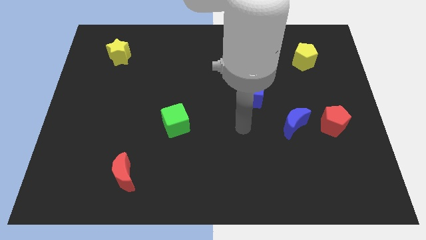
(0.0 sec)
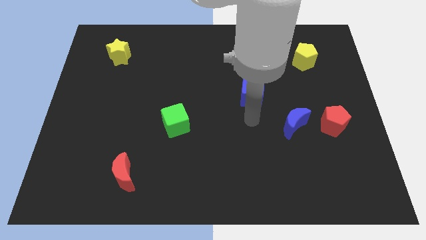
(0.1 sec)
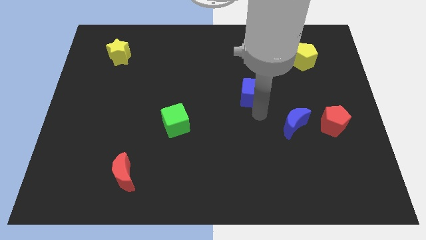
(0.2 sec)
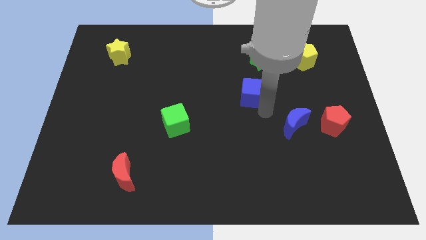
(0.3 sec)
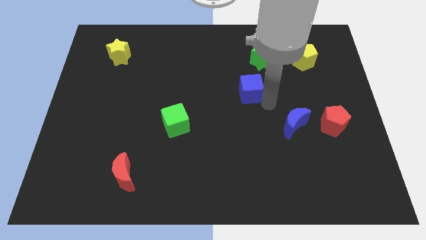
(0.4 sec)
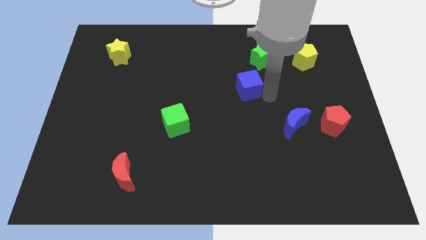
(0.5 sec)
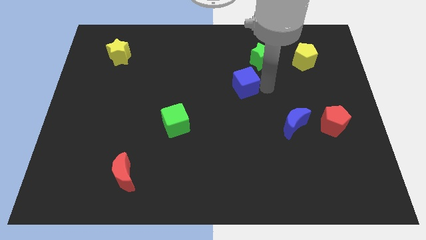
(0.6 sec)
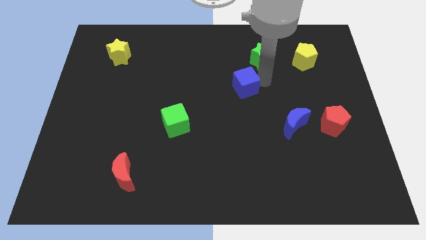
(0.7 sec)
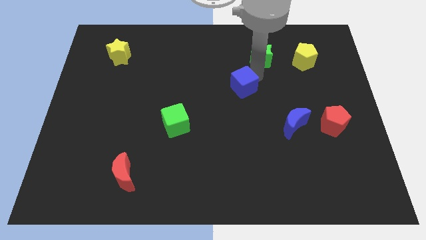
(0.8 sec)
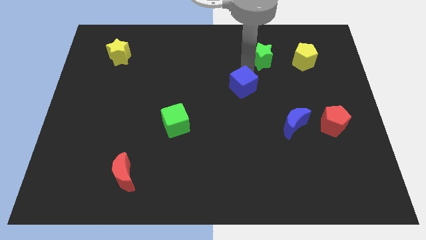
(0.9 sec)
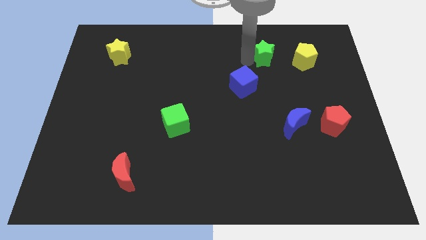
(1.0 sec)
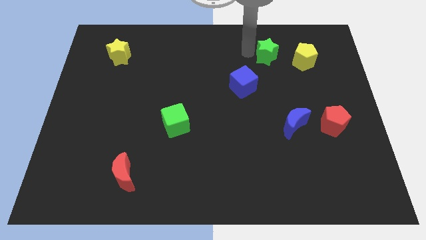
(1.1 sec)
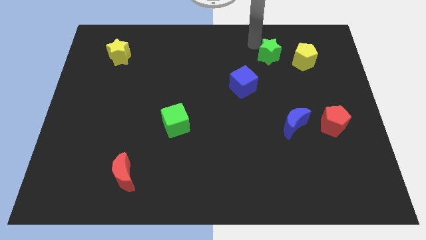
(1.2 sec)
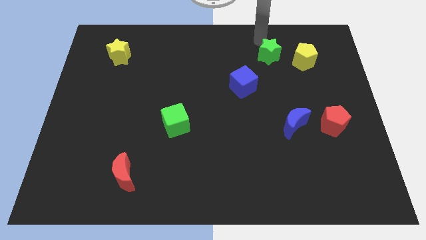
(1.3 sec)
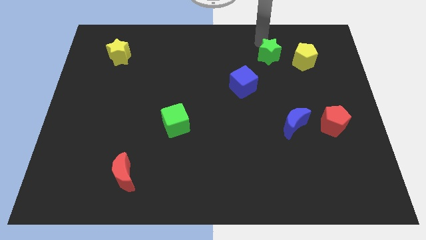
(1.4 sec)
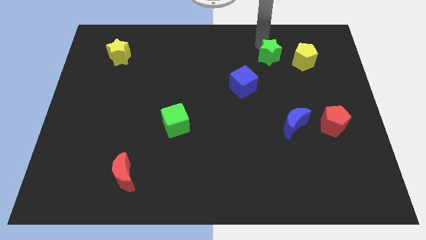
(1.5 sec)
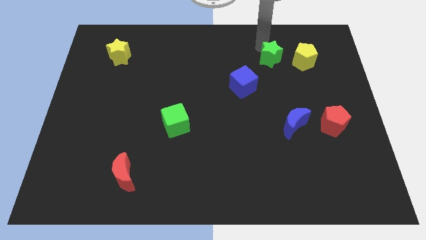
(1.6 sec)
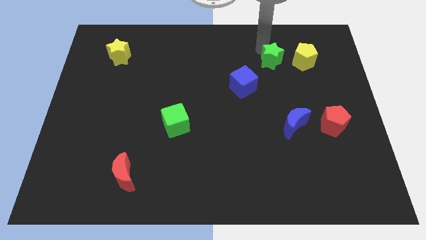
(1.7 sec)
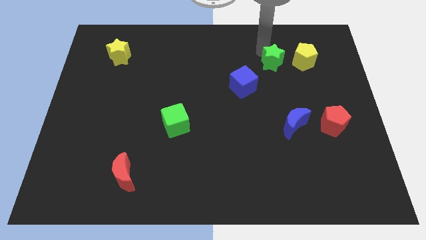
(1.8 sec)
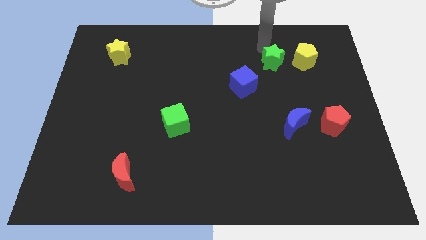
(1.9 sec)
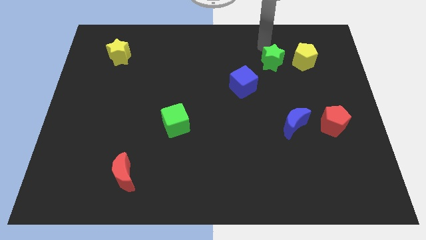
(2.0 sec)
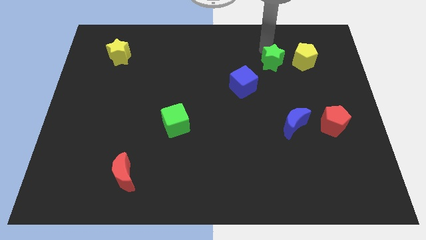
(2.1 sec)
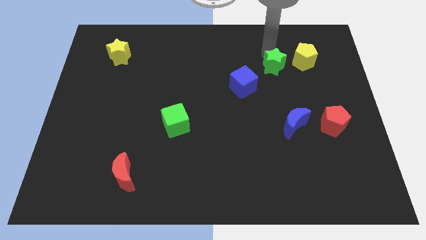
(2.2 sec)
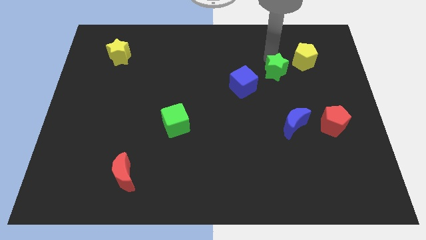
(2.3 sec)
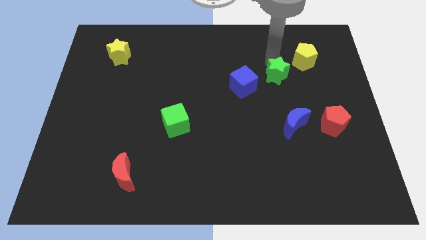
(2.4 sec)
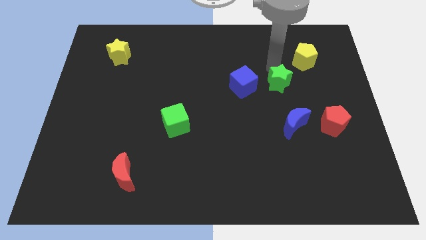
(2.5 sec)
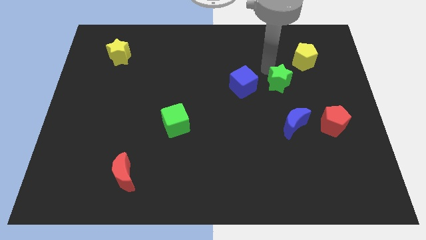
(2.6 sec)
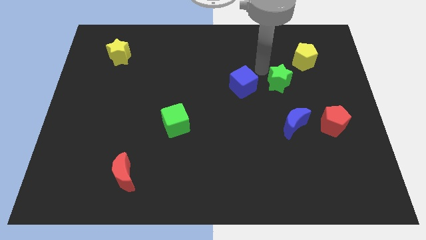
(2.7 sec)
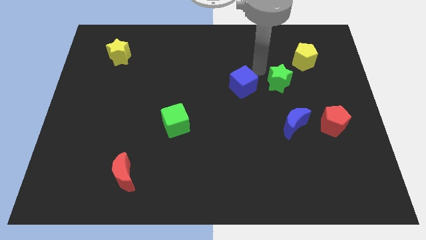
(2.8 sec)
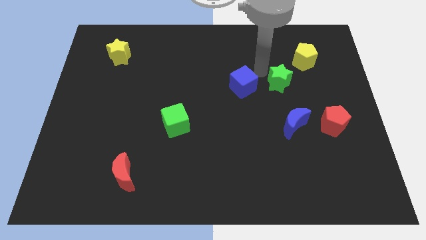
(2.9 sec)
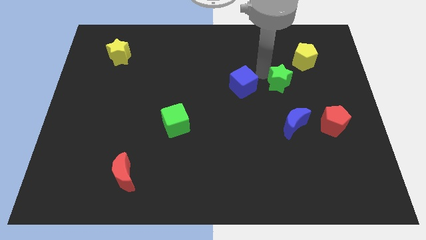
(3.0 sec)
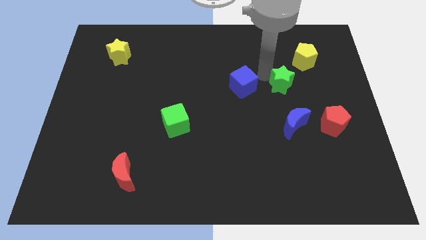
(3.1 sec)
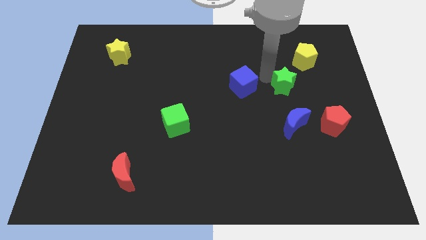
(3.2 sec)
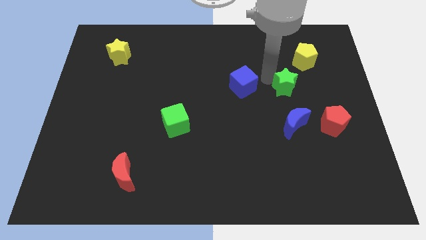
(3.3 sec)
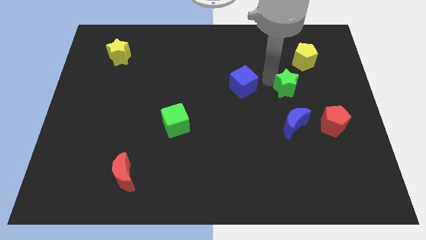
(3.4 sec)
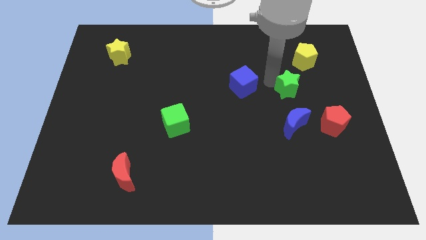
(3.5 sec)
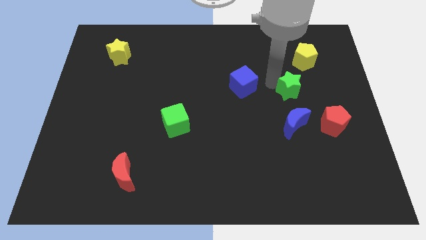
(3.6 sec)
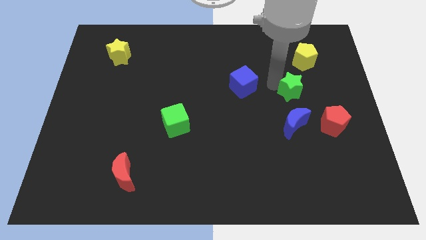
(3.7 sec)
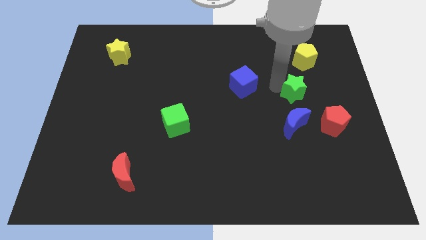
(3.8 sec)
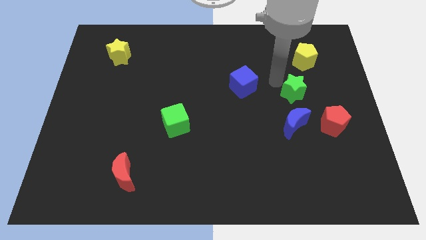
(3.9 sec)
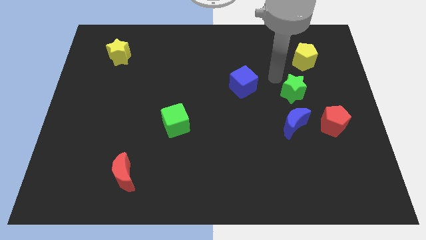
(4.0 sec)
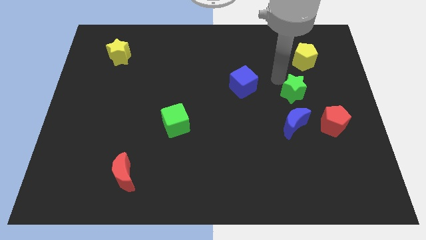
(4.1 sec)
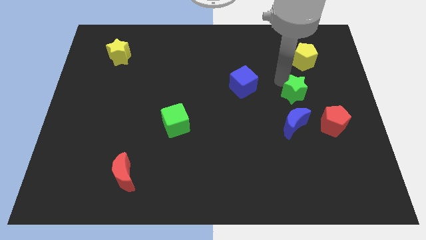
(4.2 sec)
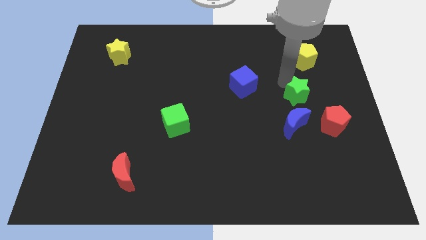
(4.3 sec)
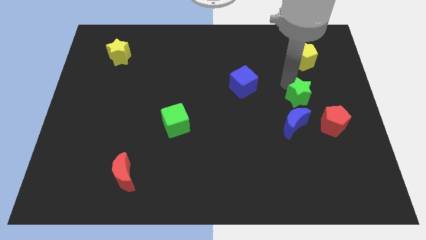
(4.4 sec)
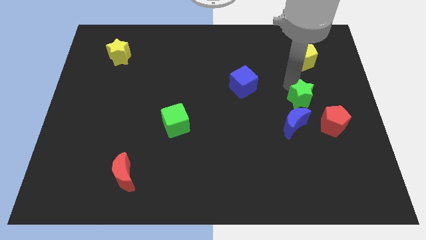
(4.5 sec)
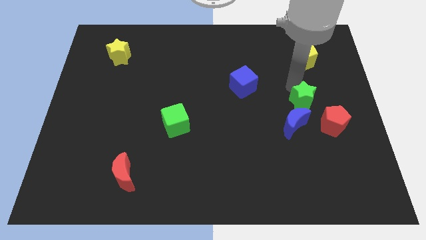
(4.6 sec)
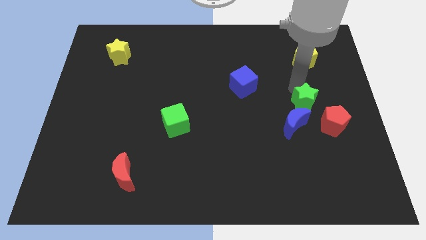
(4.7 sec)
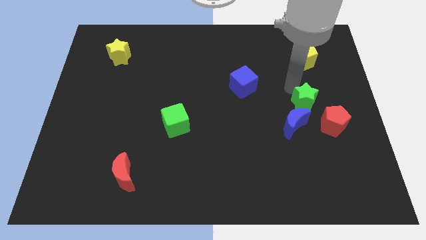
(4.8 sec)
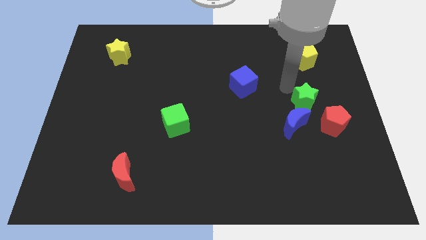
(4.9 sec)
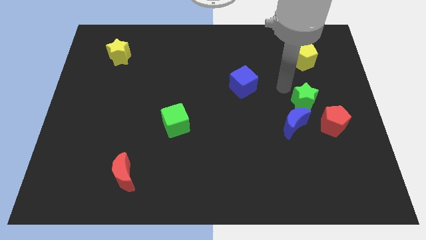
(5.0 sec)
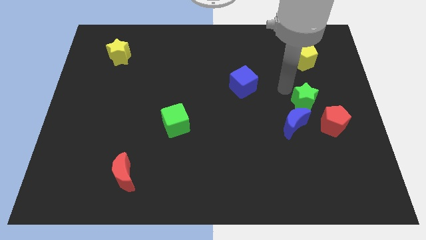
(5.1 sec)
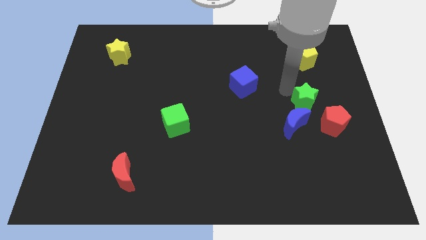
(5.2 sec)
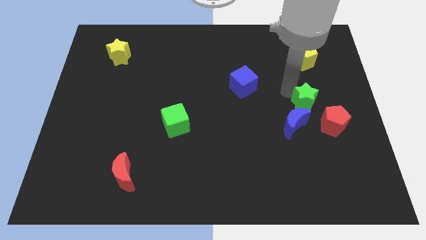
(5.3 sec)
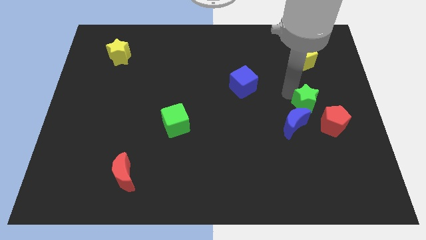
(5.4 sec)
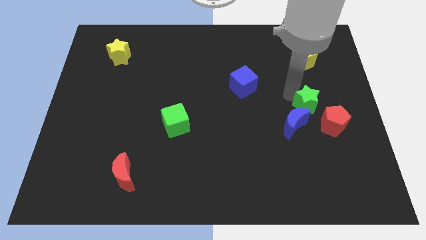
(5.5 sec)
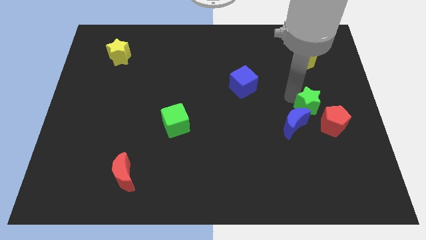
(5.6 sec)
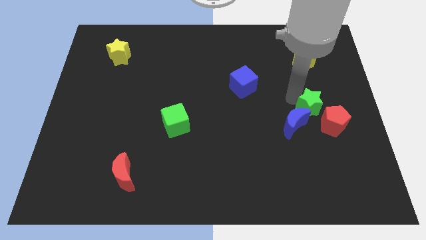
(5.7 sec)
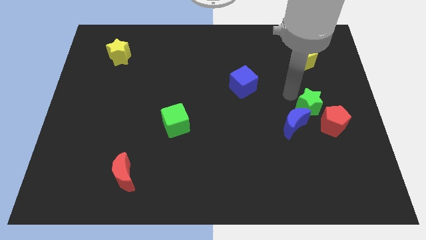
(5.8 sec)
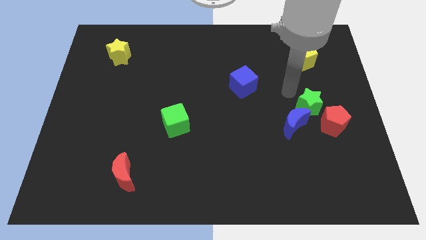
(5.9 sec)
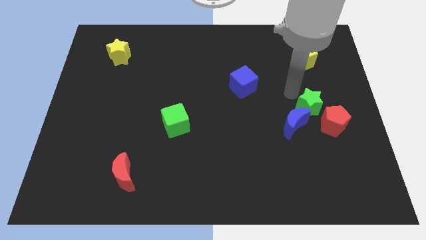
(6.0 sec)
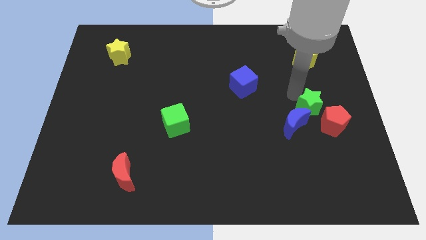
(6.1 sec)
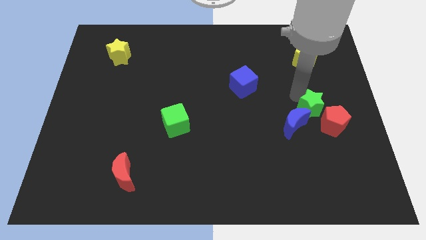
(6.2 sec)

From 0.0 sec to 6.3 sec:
slide the green star next to the red pentagon

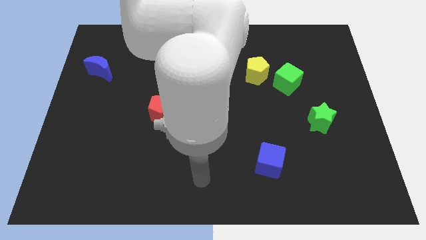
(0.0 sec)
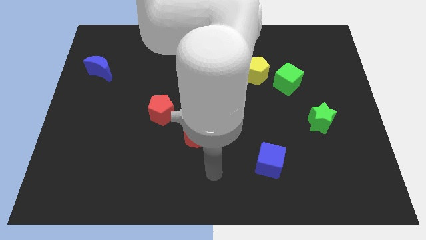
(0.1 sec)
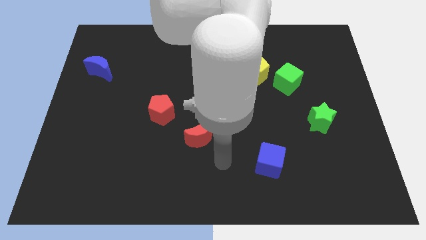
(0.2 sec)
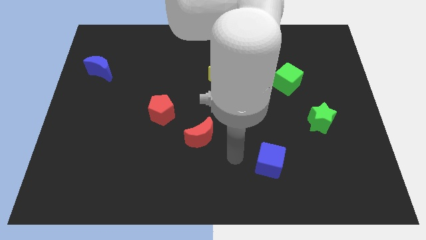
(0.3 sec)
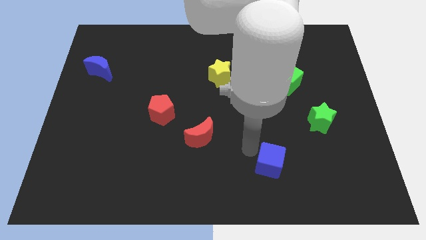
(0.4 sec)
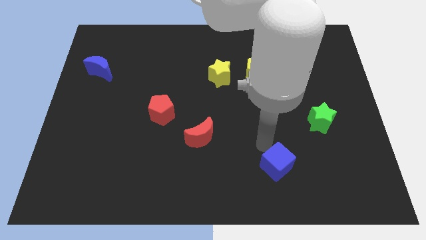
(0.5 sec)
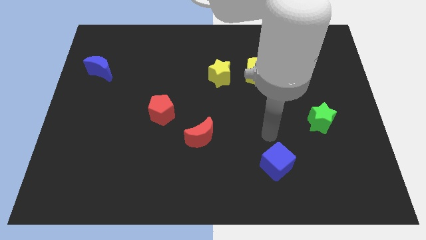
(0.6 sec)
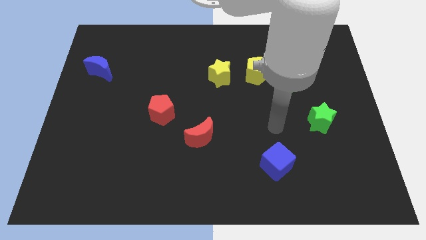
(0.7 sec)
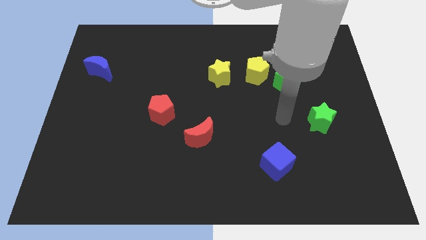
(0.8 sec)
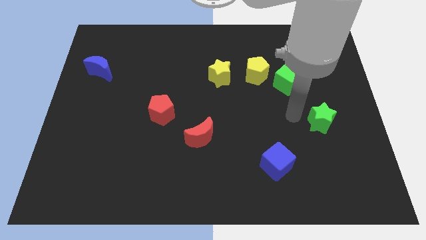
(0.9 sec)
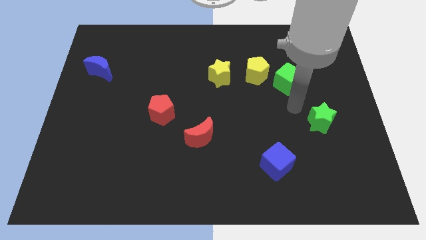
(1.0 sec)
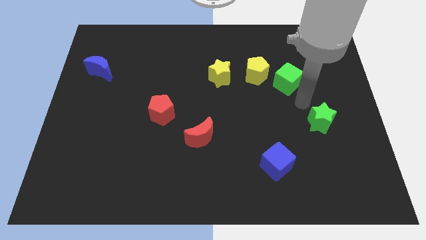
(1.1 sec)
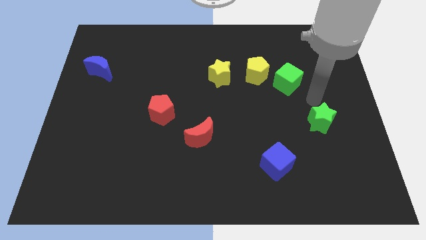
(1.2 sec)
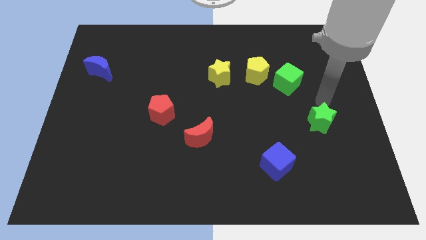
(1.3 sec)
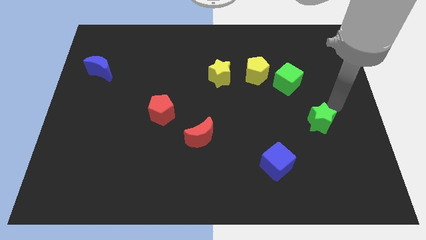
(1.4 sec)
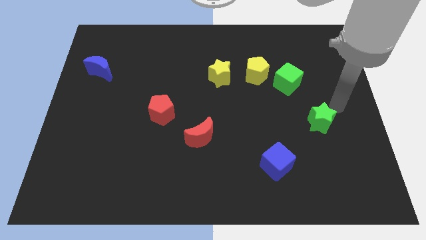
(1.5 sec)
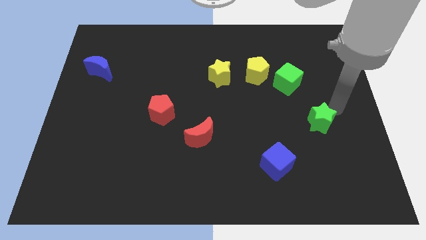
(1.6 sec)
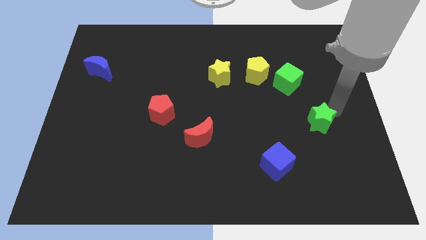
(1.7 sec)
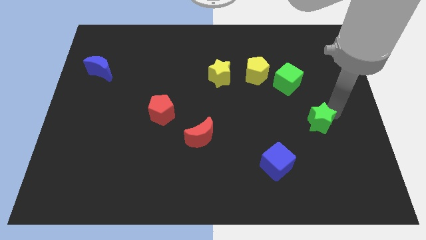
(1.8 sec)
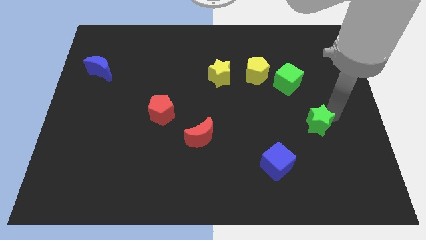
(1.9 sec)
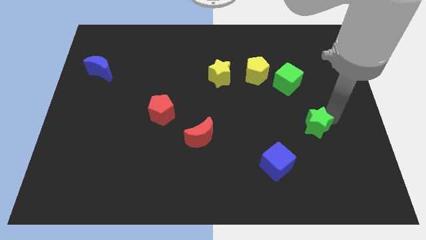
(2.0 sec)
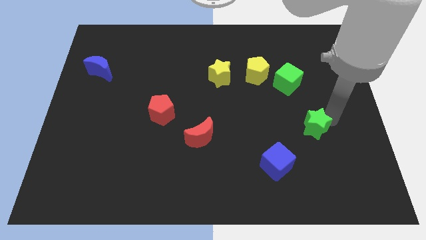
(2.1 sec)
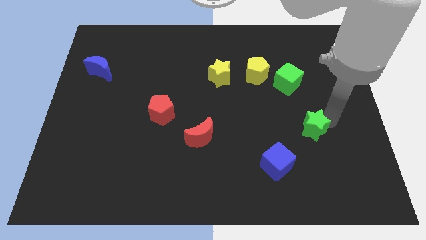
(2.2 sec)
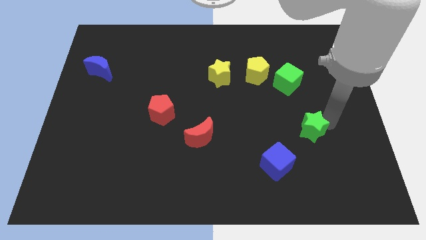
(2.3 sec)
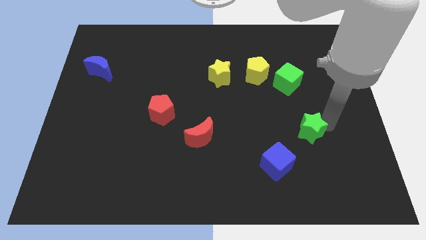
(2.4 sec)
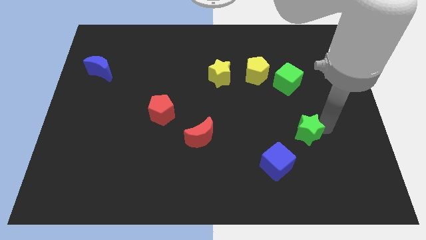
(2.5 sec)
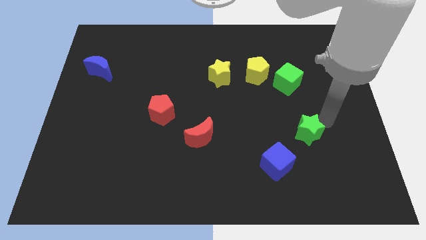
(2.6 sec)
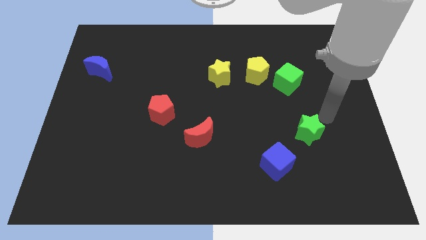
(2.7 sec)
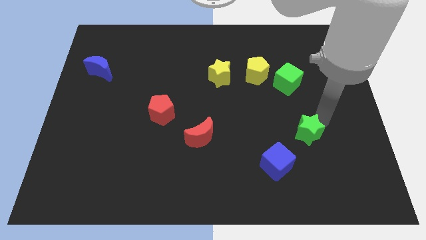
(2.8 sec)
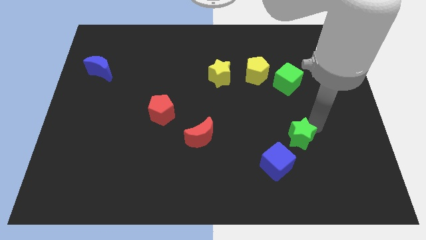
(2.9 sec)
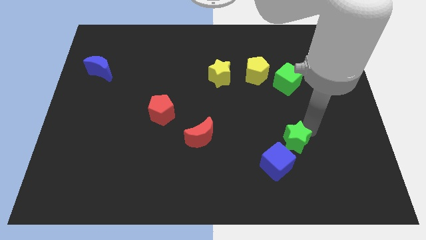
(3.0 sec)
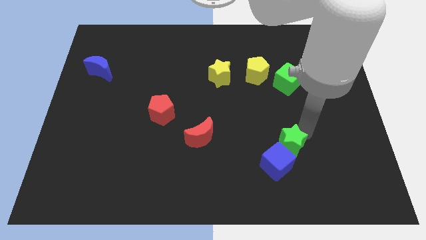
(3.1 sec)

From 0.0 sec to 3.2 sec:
slide the green star towards the blue cube
